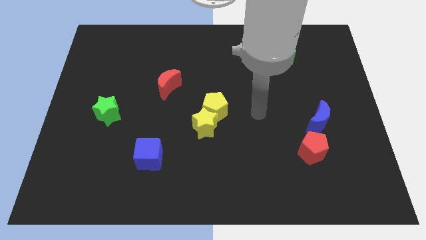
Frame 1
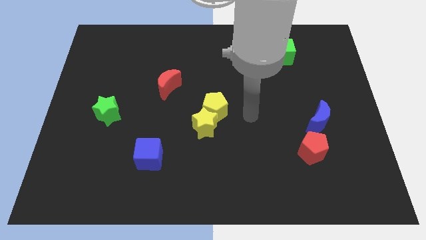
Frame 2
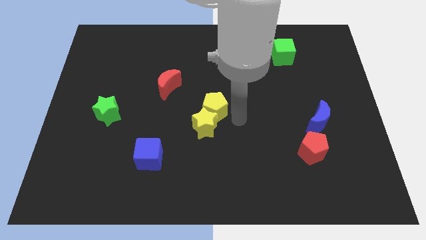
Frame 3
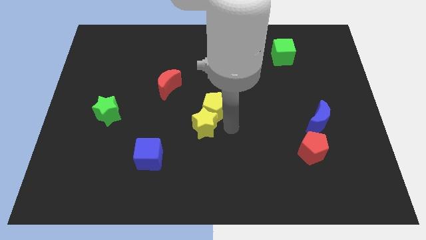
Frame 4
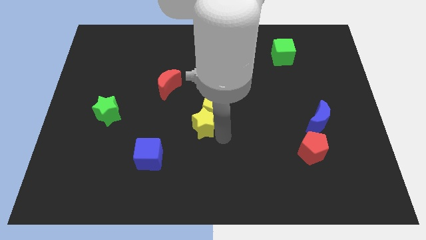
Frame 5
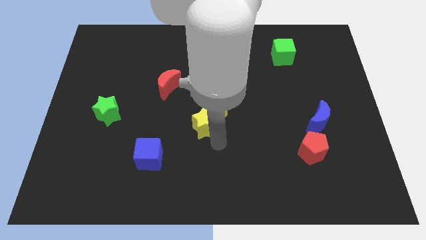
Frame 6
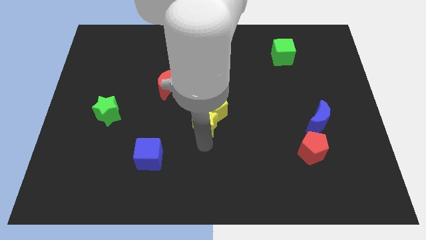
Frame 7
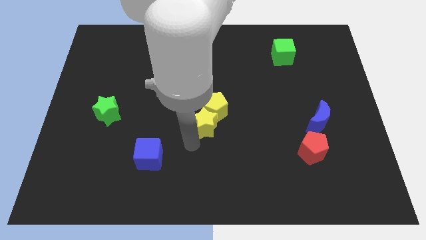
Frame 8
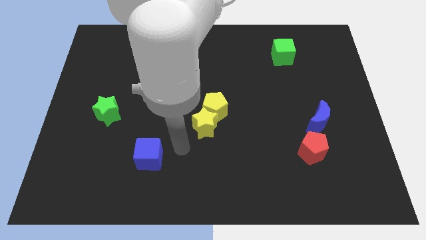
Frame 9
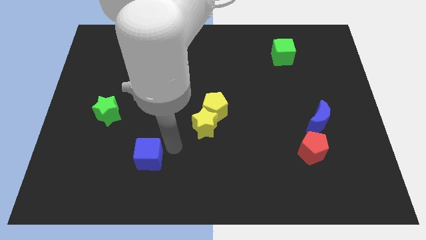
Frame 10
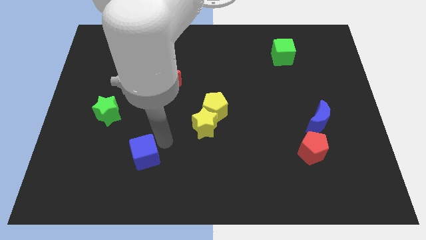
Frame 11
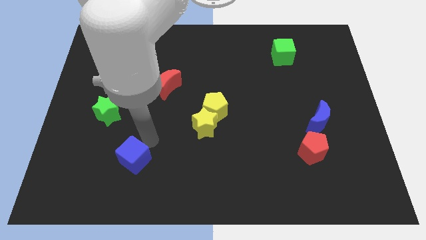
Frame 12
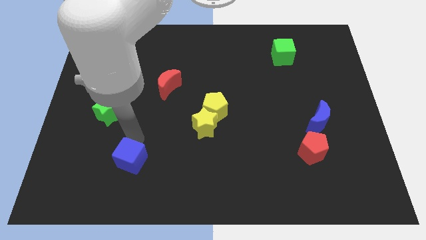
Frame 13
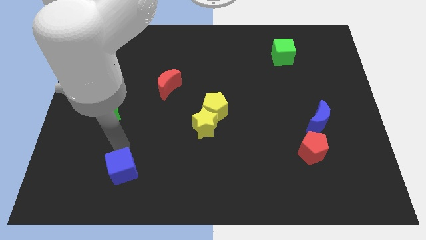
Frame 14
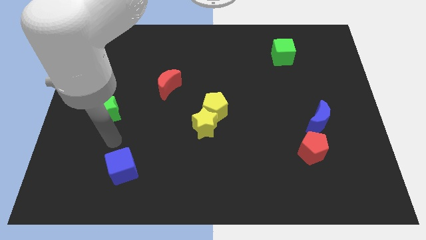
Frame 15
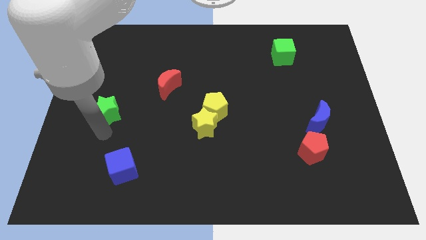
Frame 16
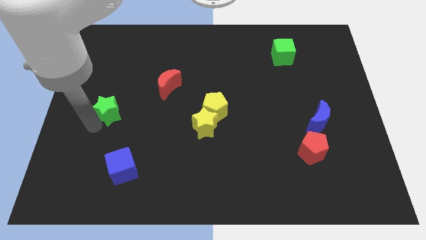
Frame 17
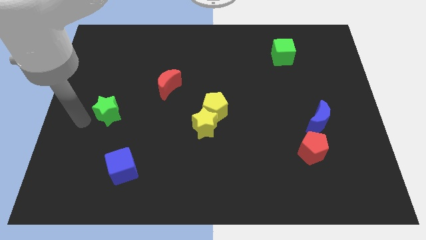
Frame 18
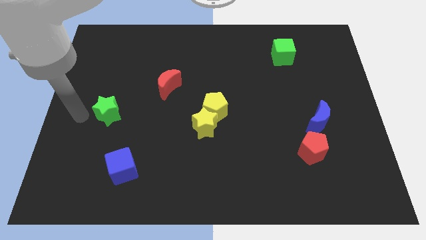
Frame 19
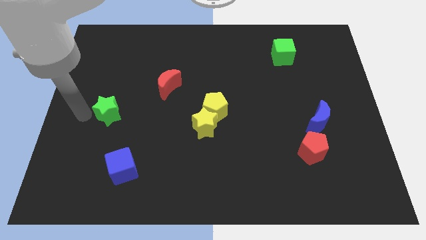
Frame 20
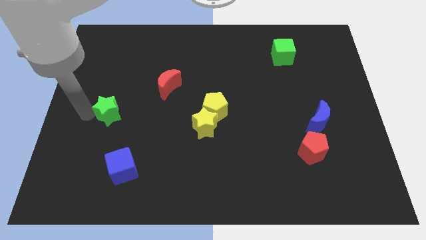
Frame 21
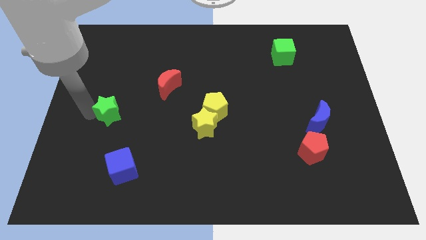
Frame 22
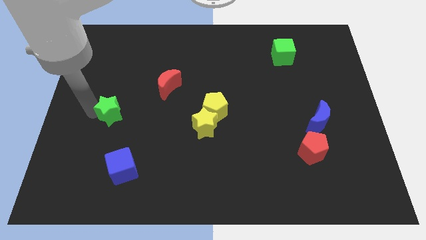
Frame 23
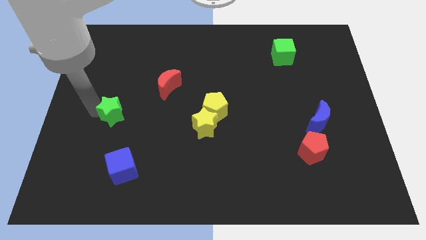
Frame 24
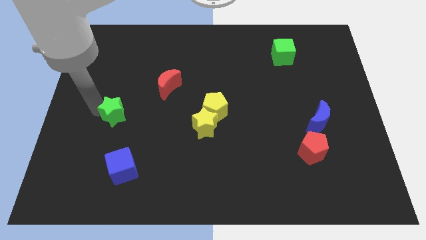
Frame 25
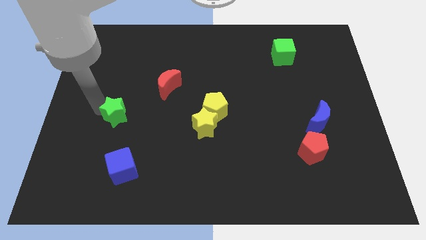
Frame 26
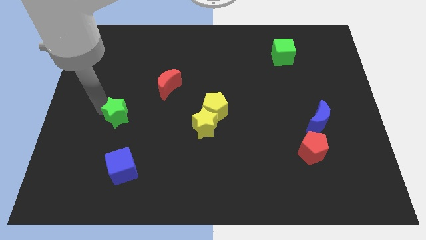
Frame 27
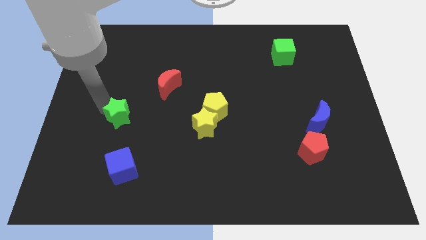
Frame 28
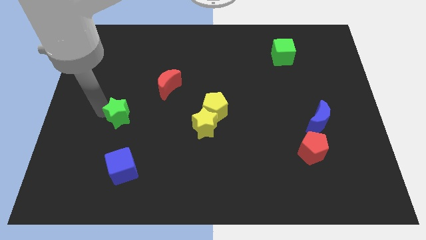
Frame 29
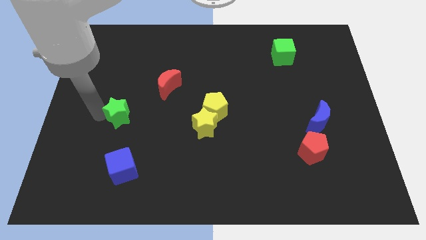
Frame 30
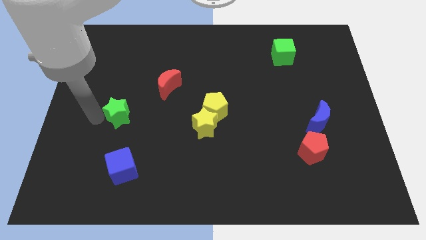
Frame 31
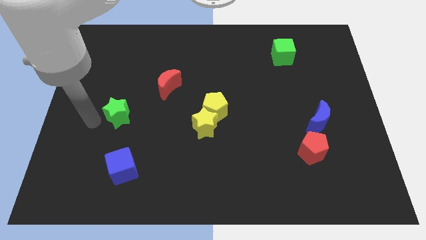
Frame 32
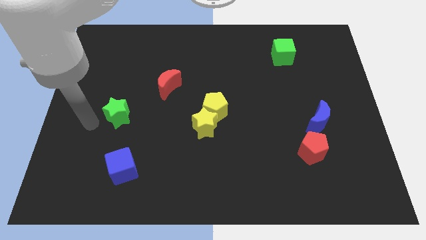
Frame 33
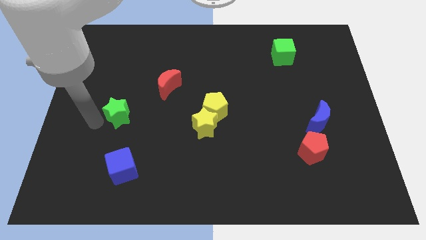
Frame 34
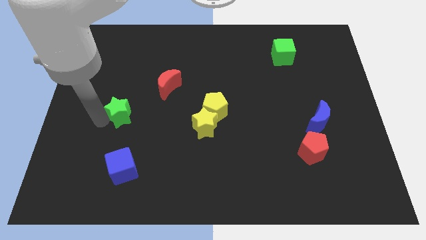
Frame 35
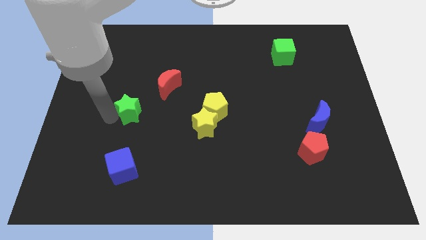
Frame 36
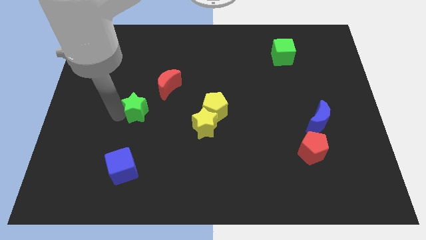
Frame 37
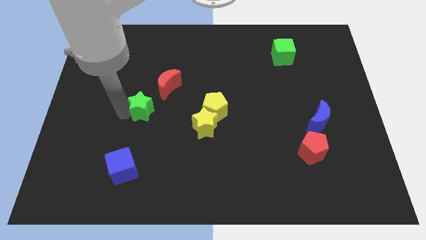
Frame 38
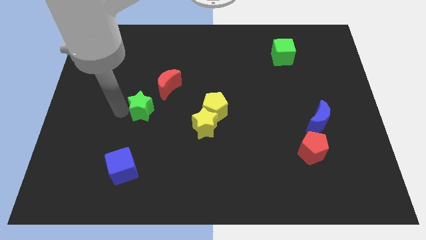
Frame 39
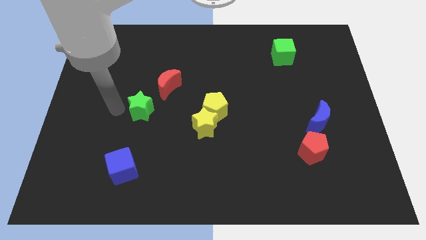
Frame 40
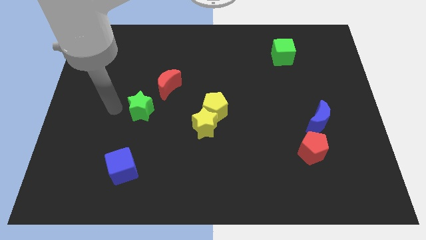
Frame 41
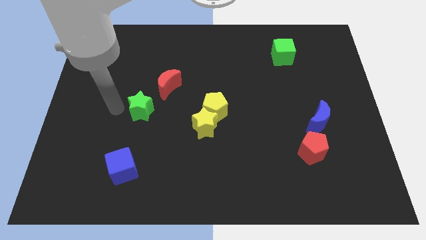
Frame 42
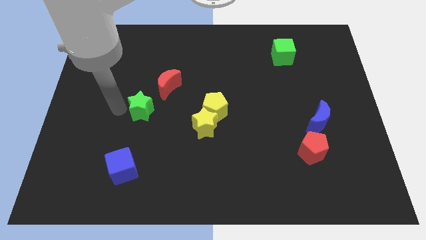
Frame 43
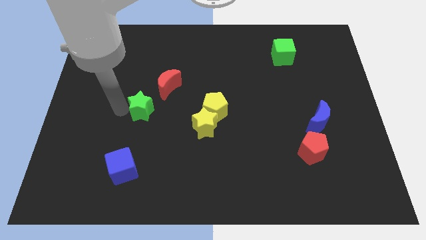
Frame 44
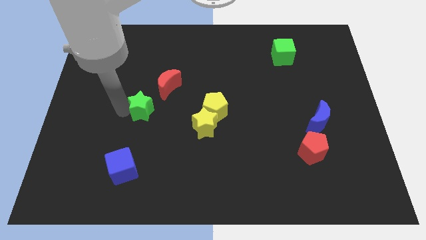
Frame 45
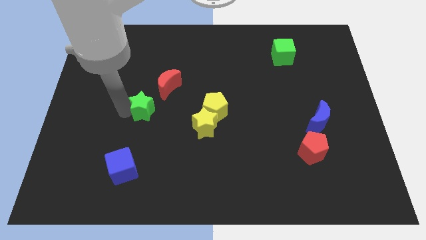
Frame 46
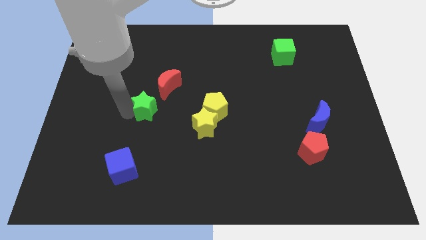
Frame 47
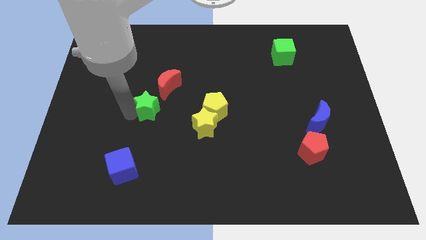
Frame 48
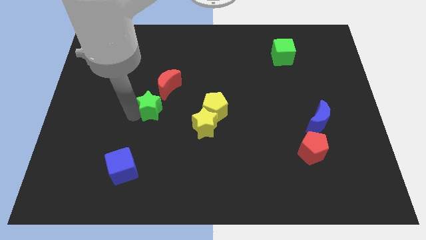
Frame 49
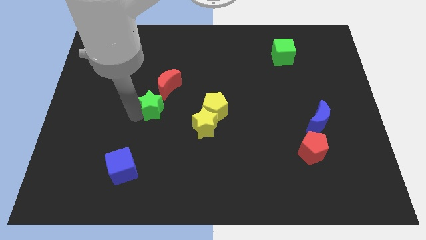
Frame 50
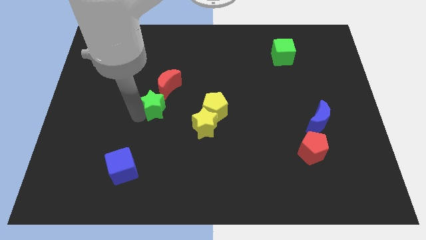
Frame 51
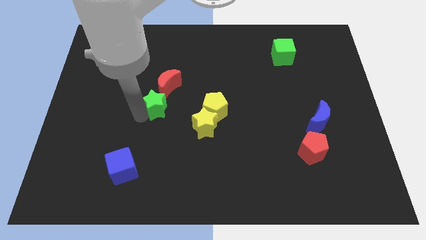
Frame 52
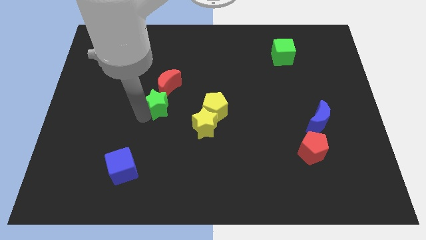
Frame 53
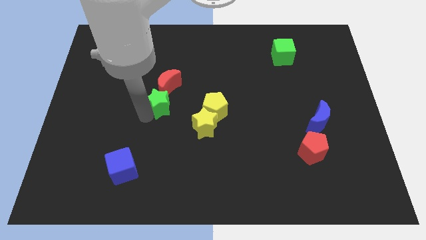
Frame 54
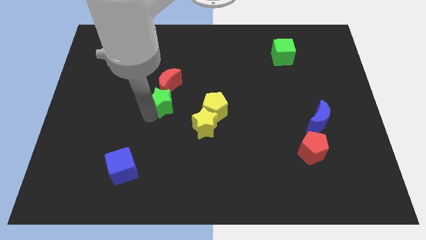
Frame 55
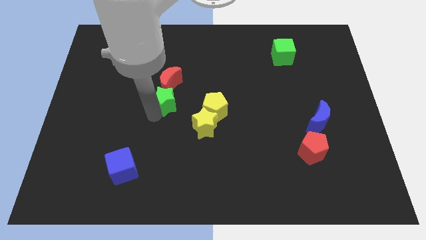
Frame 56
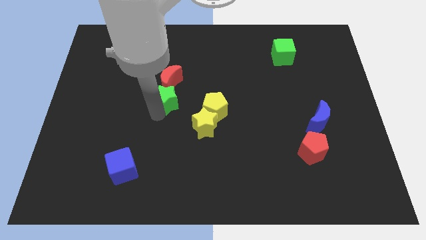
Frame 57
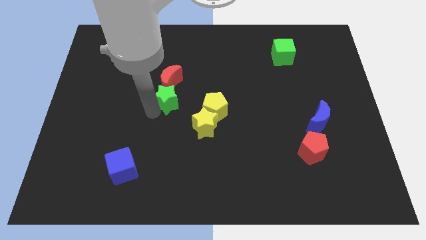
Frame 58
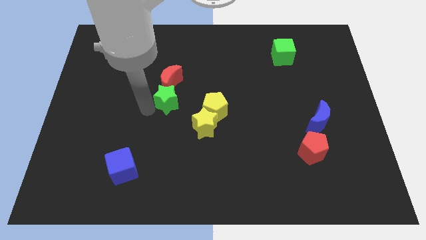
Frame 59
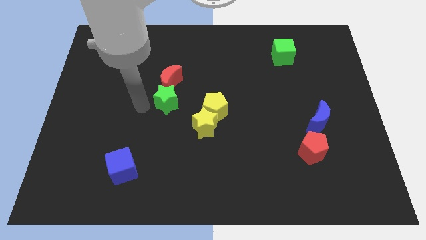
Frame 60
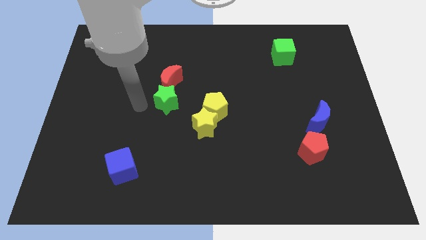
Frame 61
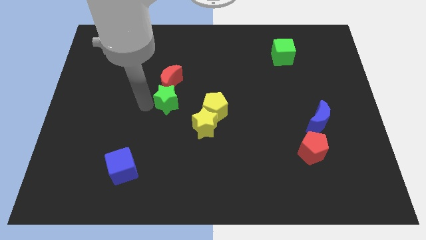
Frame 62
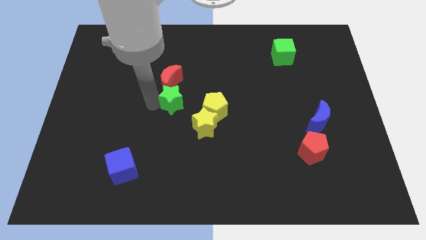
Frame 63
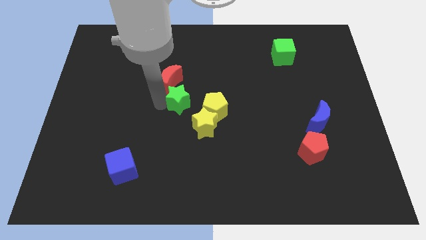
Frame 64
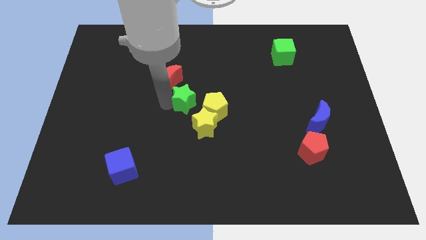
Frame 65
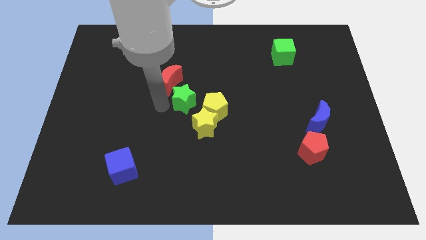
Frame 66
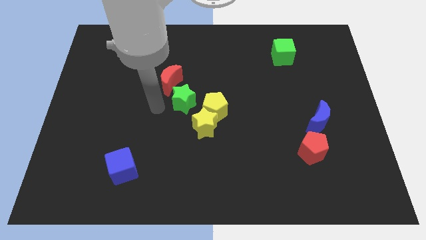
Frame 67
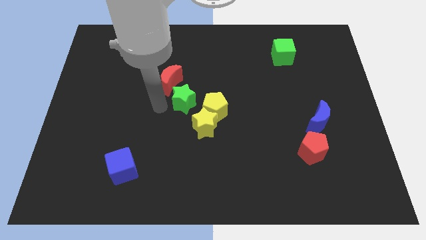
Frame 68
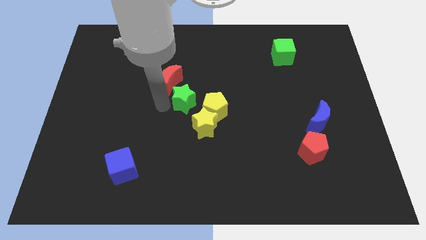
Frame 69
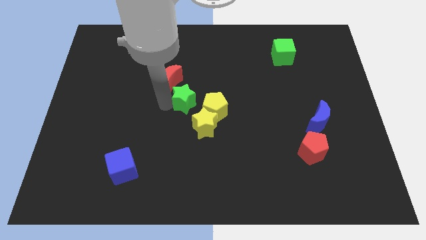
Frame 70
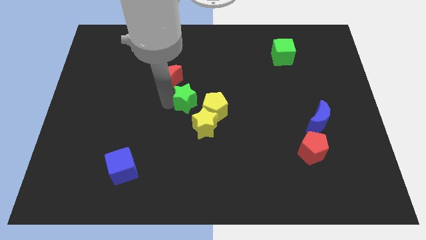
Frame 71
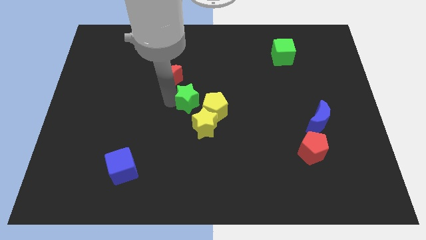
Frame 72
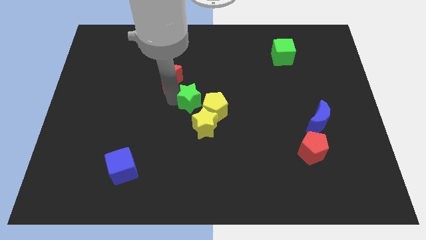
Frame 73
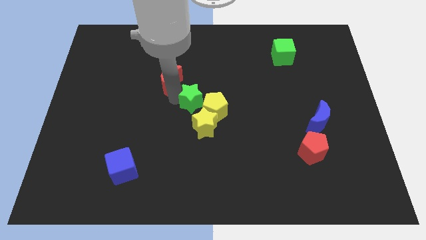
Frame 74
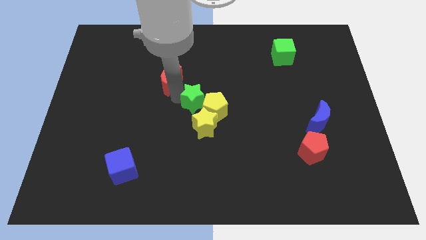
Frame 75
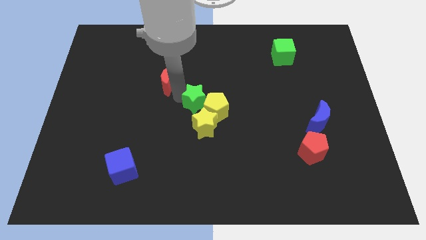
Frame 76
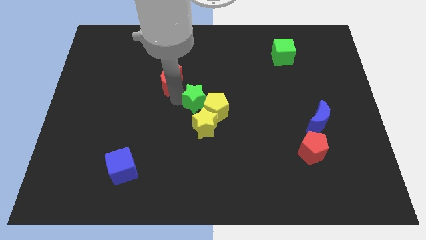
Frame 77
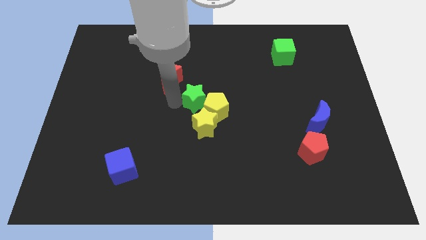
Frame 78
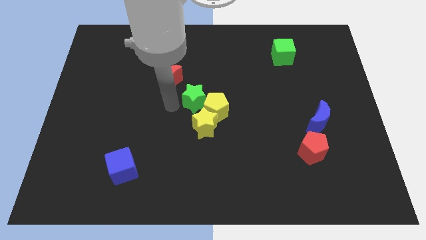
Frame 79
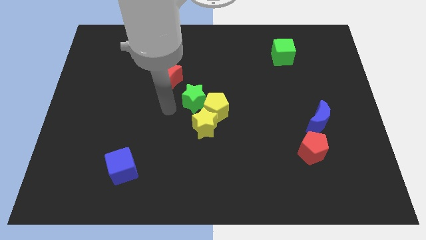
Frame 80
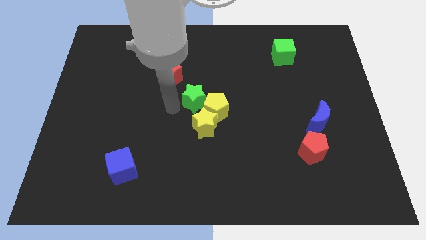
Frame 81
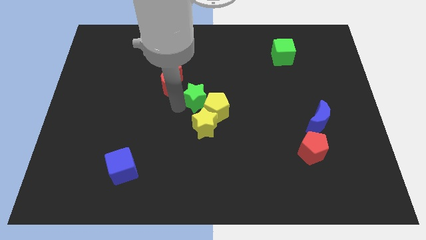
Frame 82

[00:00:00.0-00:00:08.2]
slide the green star right
